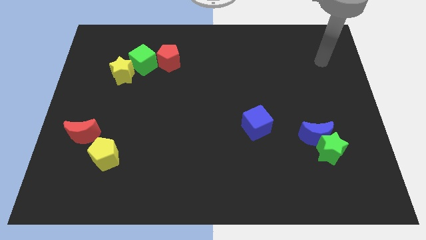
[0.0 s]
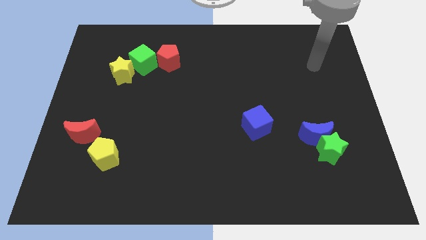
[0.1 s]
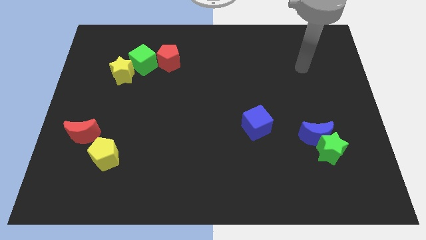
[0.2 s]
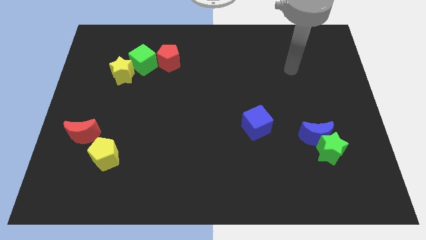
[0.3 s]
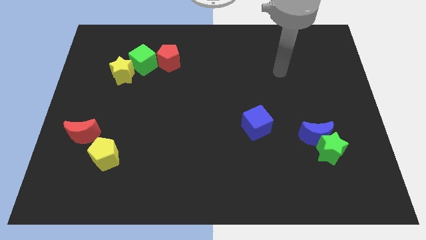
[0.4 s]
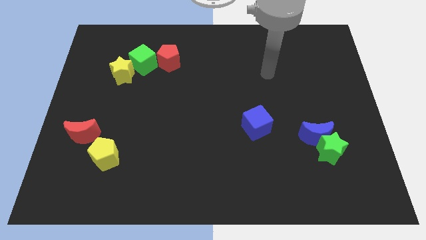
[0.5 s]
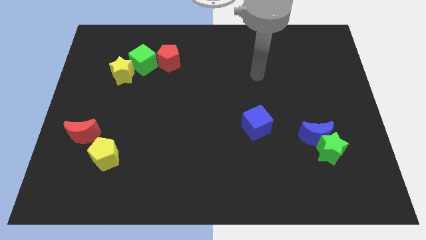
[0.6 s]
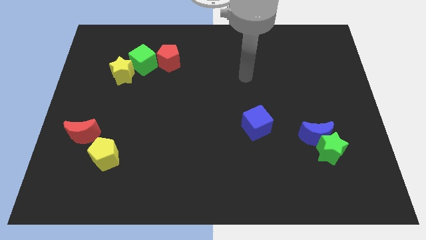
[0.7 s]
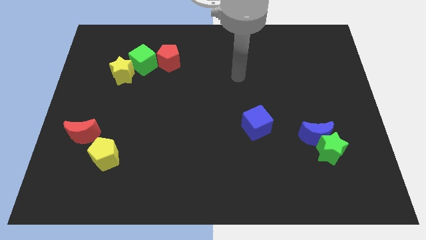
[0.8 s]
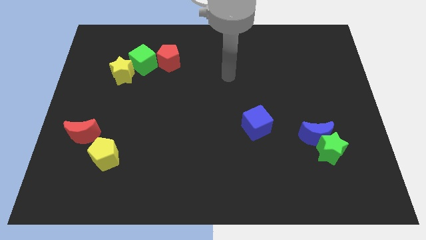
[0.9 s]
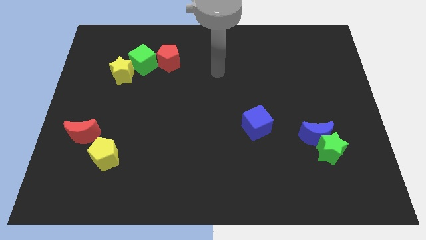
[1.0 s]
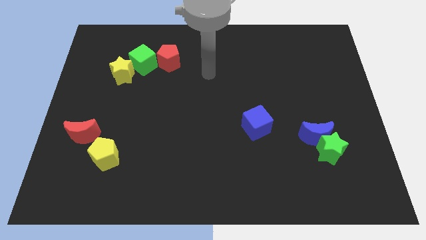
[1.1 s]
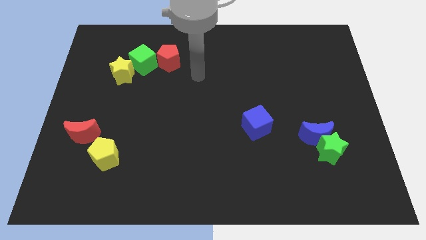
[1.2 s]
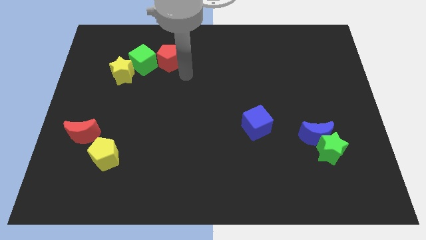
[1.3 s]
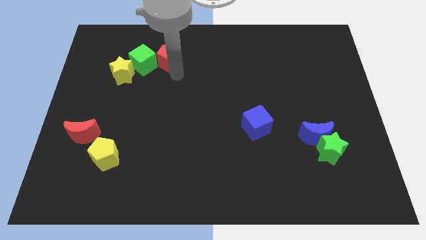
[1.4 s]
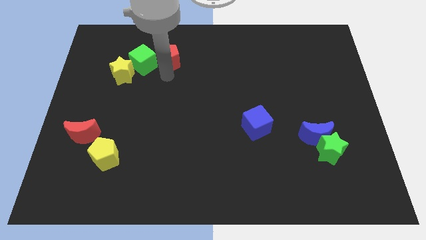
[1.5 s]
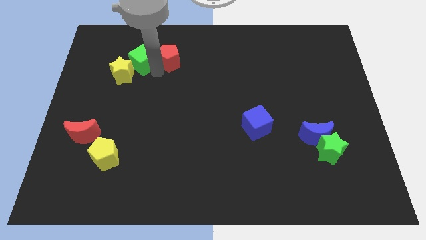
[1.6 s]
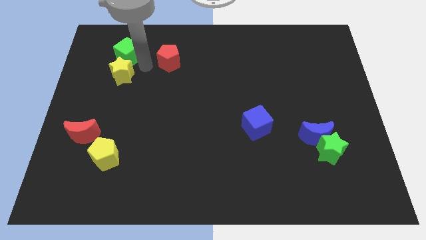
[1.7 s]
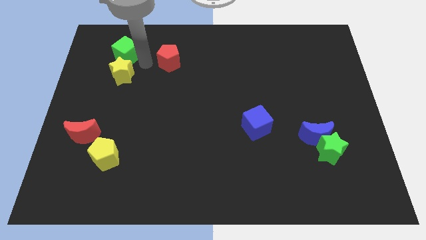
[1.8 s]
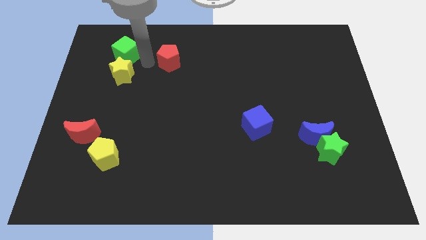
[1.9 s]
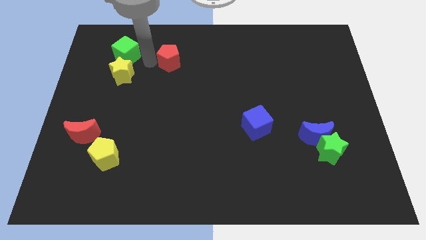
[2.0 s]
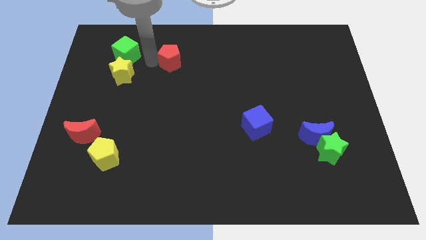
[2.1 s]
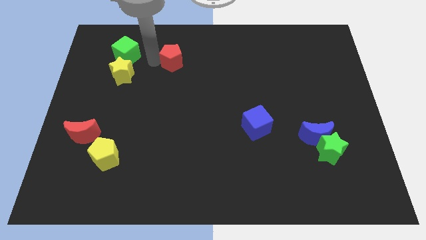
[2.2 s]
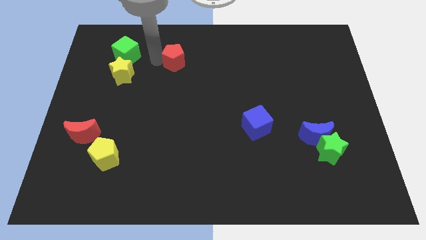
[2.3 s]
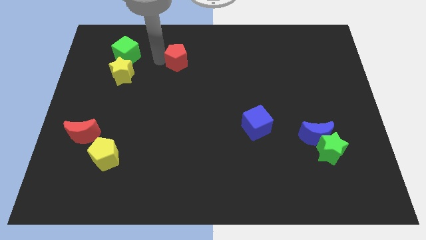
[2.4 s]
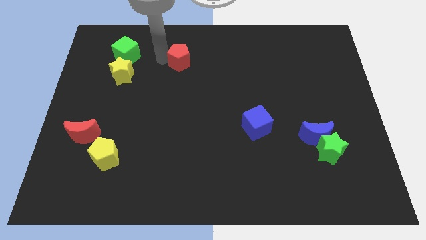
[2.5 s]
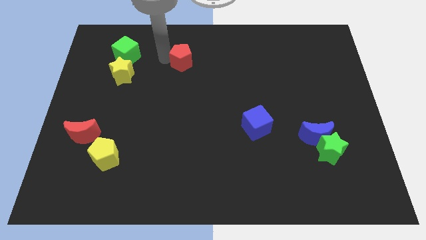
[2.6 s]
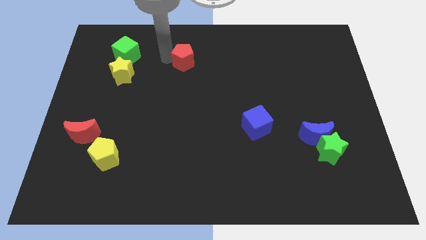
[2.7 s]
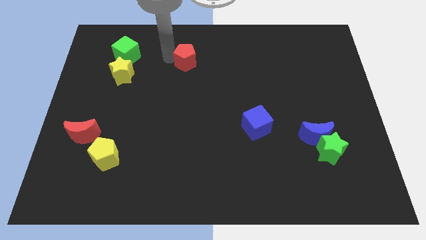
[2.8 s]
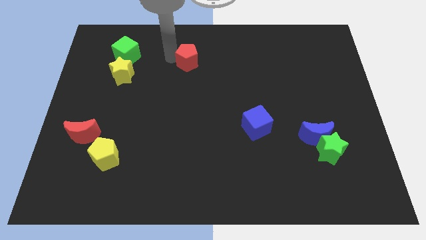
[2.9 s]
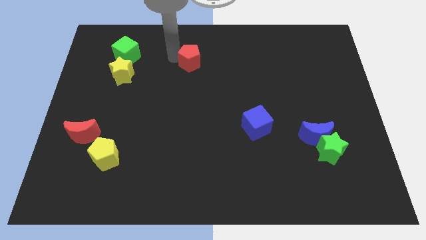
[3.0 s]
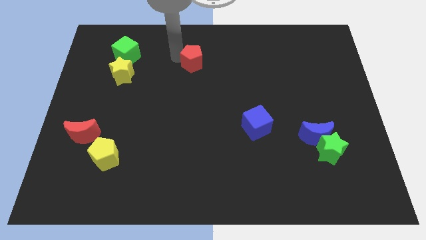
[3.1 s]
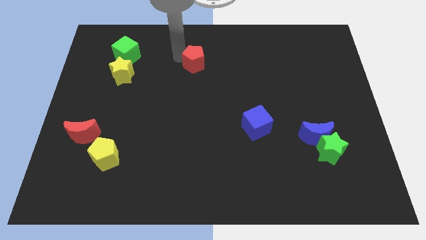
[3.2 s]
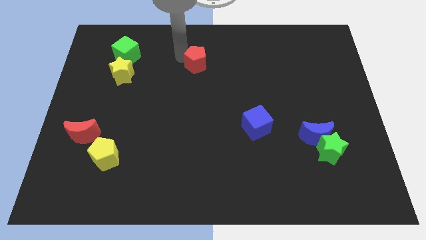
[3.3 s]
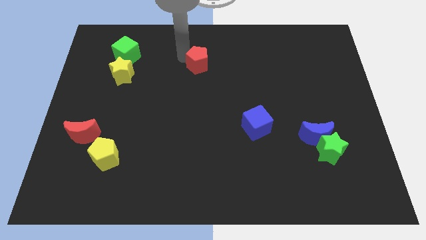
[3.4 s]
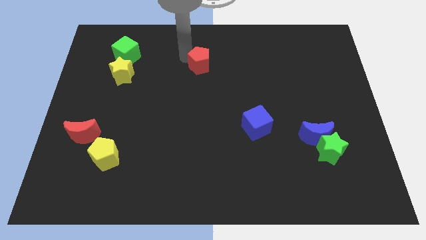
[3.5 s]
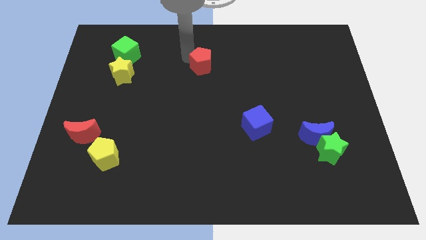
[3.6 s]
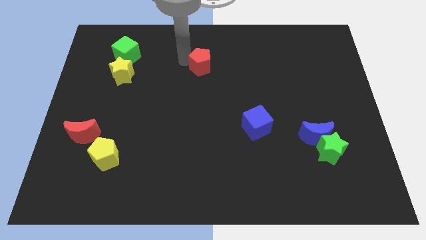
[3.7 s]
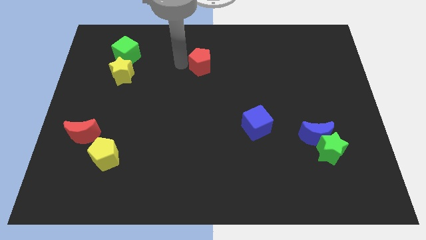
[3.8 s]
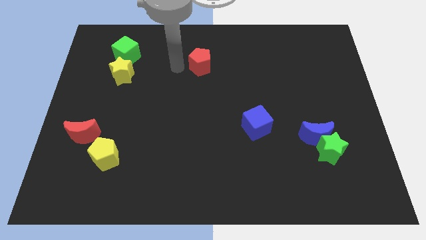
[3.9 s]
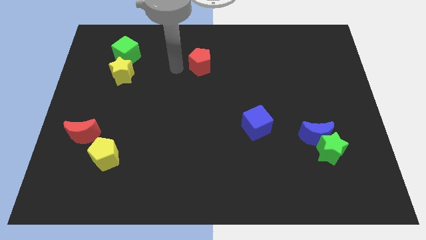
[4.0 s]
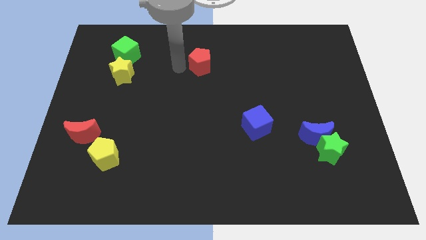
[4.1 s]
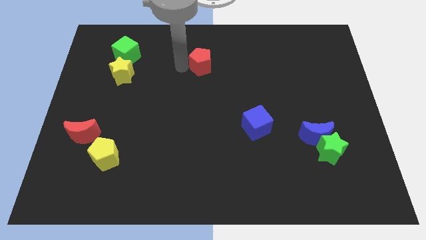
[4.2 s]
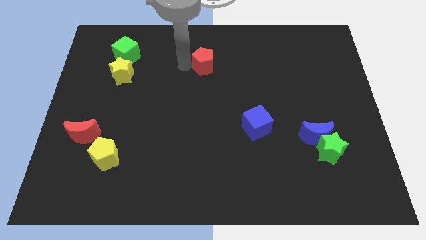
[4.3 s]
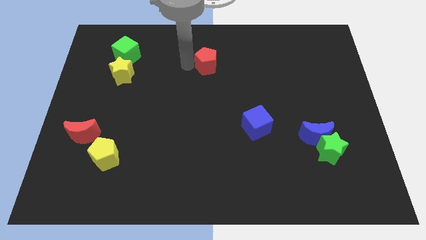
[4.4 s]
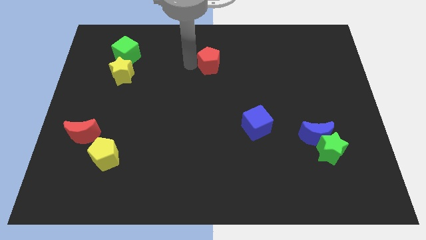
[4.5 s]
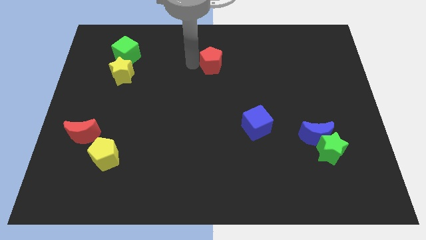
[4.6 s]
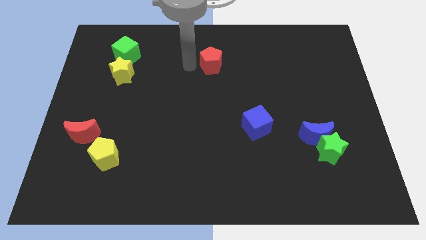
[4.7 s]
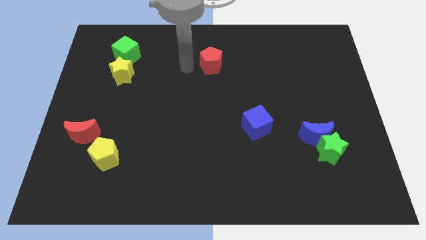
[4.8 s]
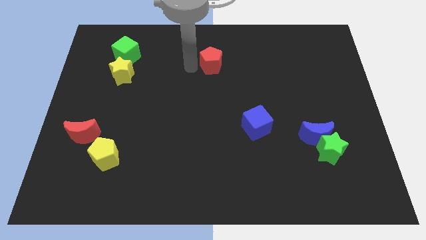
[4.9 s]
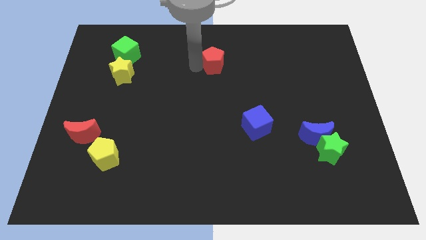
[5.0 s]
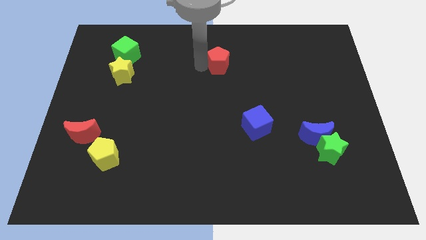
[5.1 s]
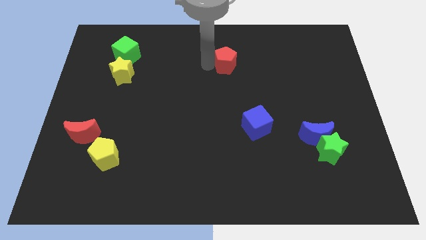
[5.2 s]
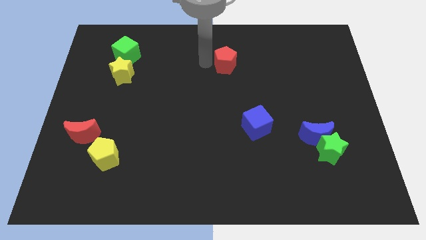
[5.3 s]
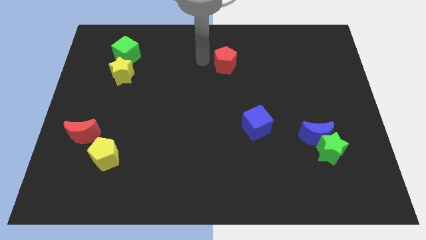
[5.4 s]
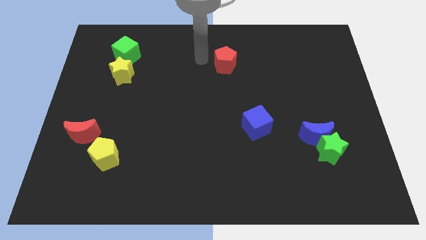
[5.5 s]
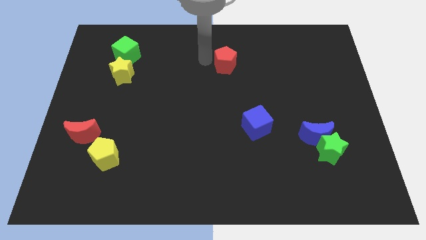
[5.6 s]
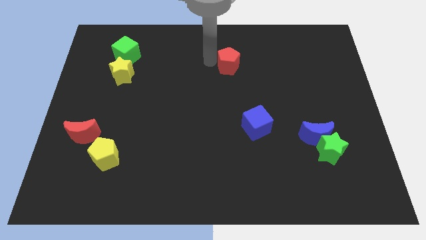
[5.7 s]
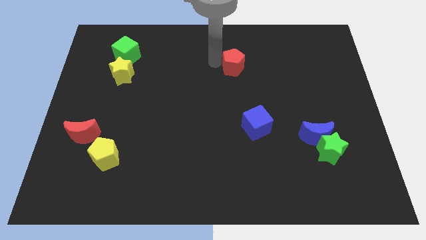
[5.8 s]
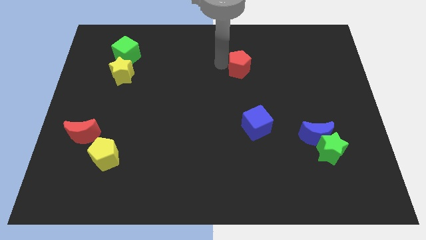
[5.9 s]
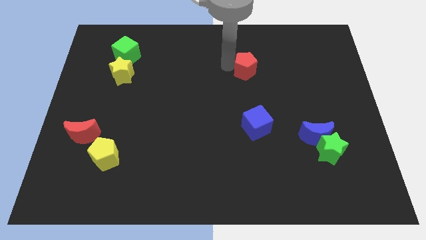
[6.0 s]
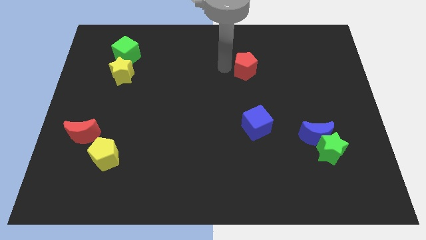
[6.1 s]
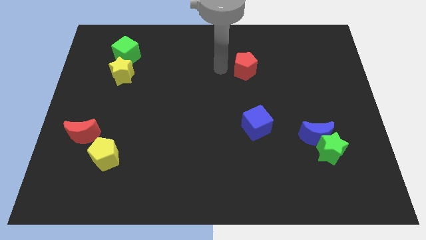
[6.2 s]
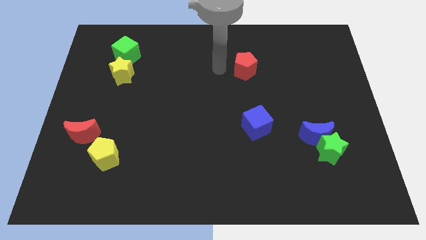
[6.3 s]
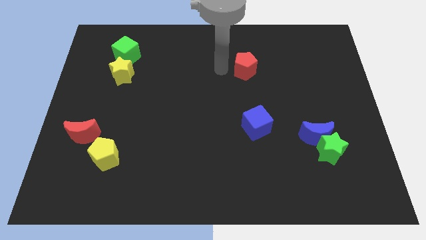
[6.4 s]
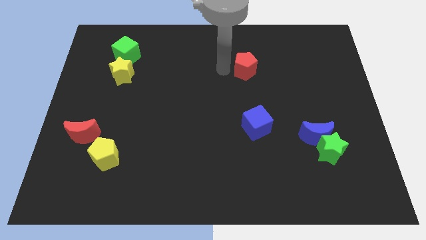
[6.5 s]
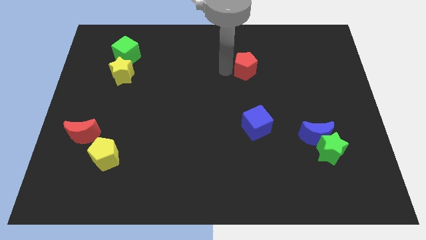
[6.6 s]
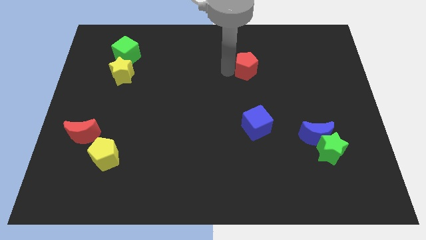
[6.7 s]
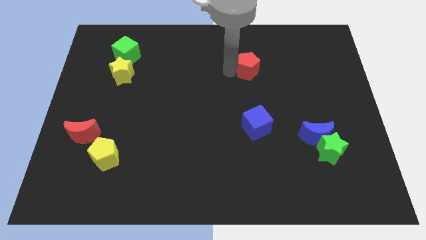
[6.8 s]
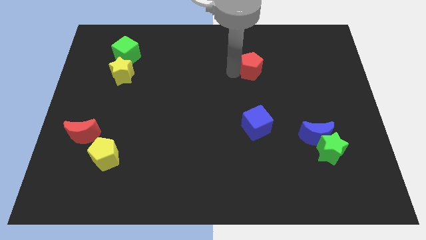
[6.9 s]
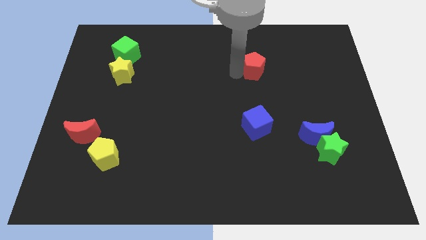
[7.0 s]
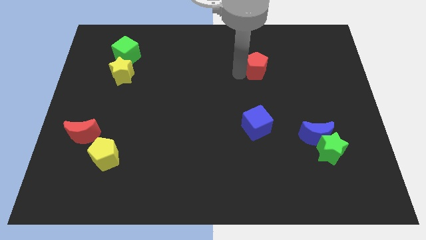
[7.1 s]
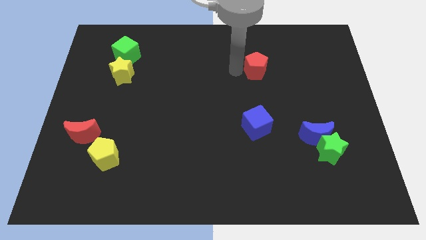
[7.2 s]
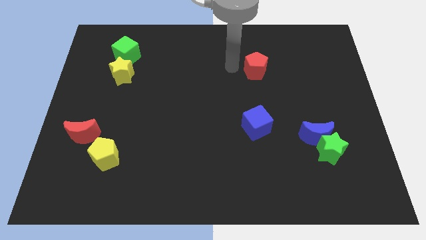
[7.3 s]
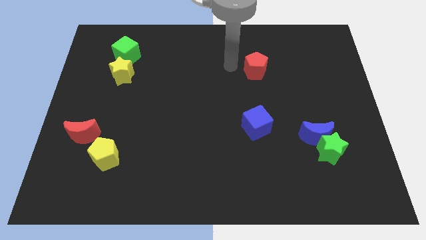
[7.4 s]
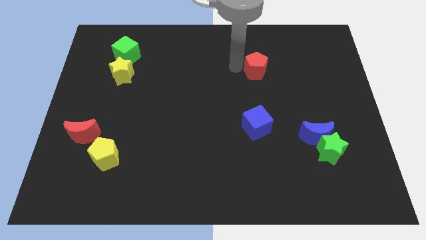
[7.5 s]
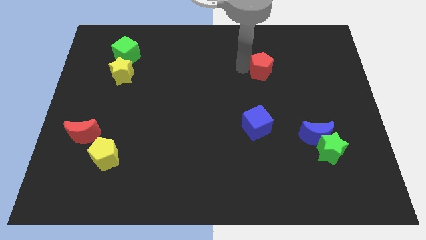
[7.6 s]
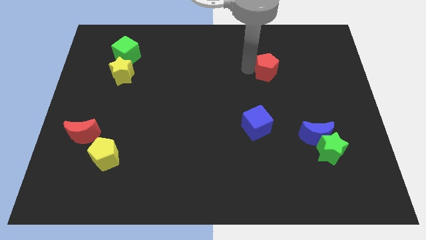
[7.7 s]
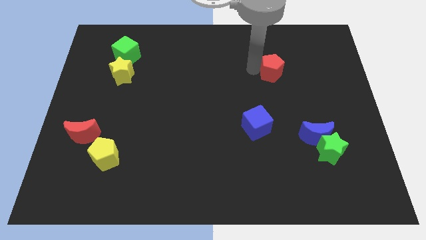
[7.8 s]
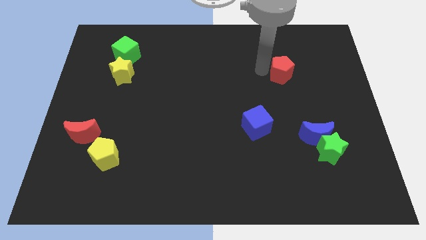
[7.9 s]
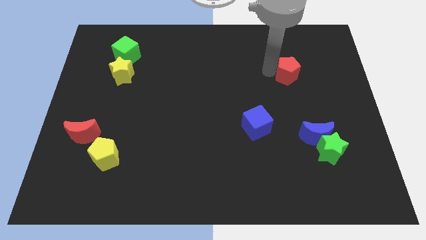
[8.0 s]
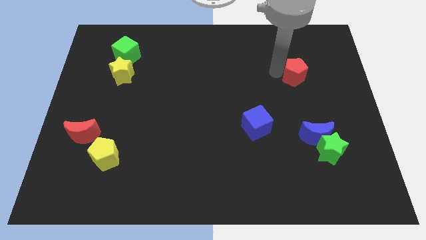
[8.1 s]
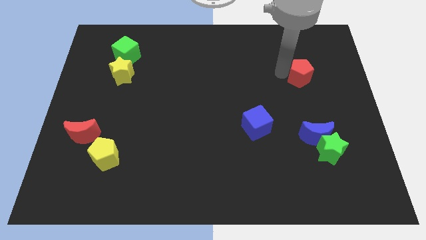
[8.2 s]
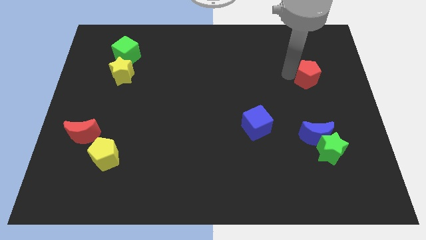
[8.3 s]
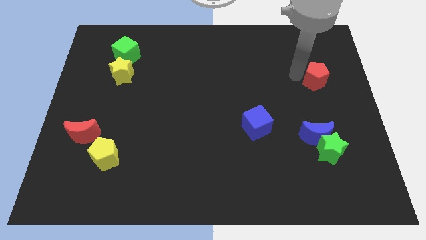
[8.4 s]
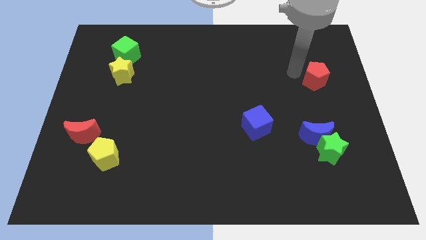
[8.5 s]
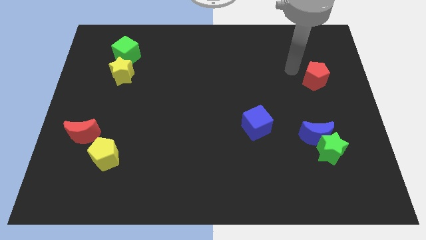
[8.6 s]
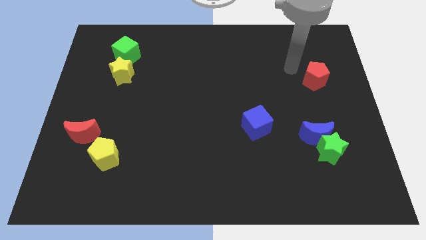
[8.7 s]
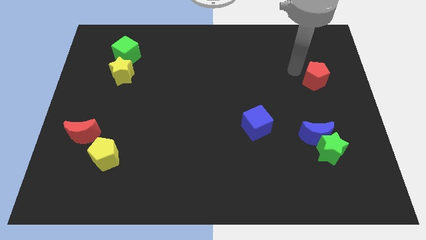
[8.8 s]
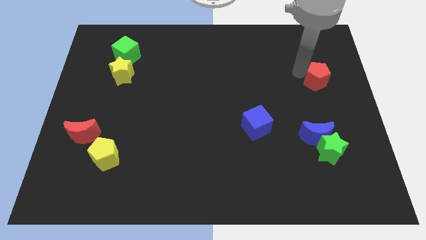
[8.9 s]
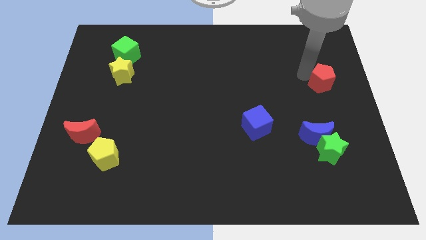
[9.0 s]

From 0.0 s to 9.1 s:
push the red pentagon to the right side
